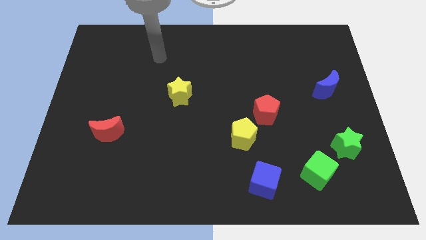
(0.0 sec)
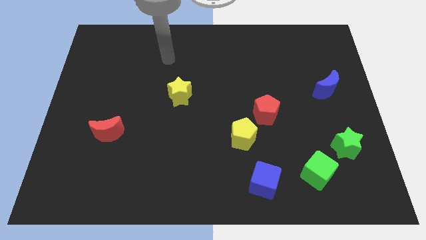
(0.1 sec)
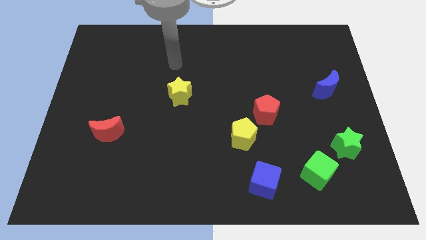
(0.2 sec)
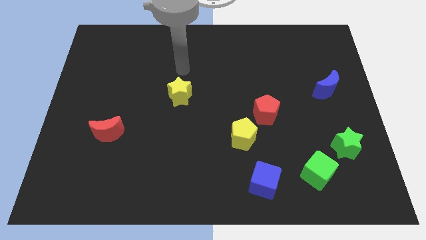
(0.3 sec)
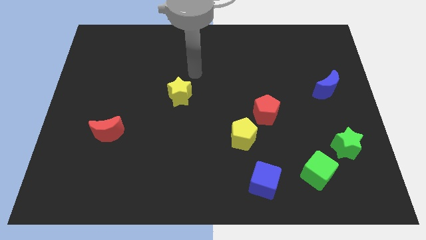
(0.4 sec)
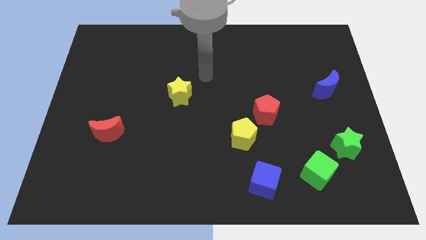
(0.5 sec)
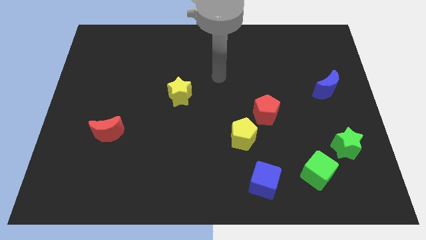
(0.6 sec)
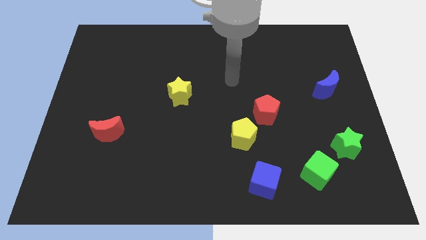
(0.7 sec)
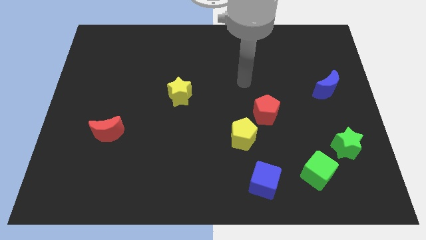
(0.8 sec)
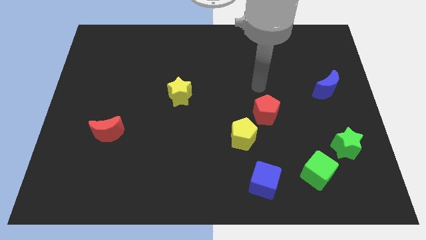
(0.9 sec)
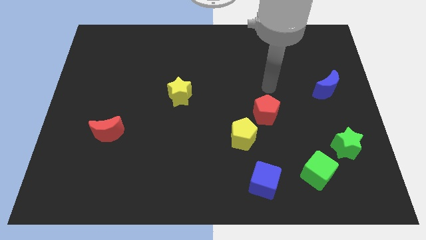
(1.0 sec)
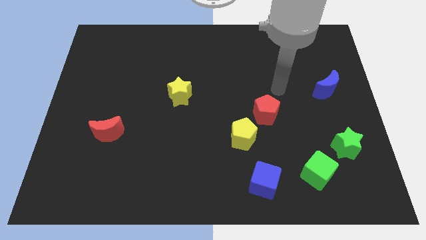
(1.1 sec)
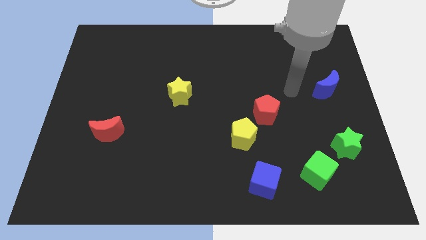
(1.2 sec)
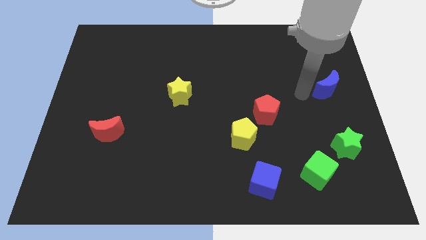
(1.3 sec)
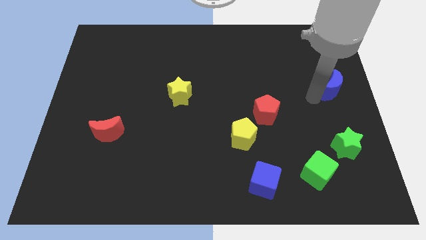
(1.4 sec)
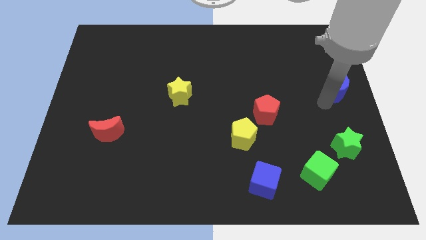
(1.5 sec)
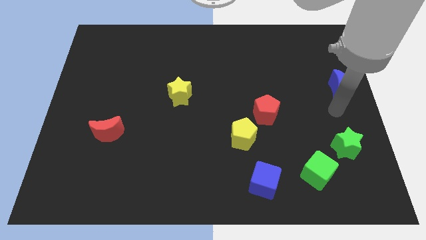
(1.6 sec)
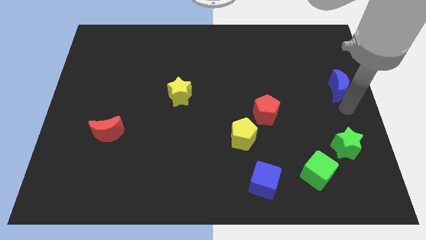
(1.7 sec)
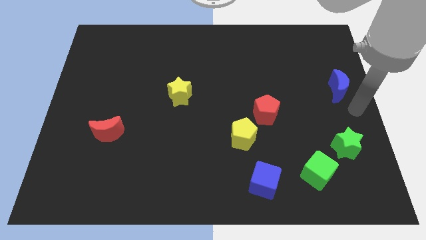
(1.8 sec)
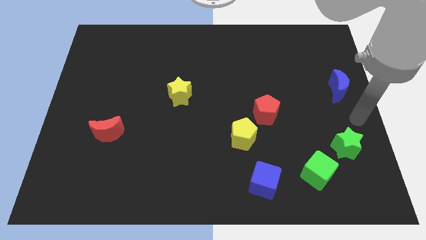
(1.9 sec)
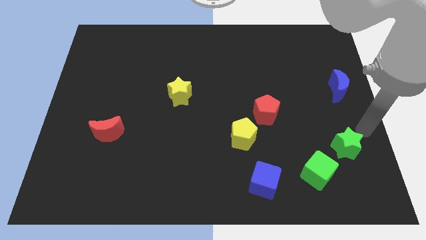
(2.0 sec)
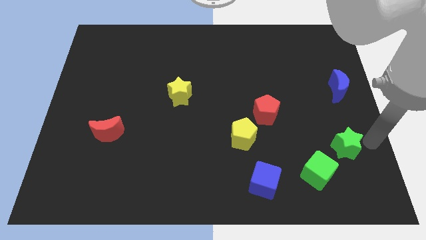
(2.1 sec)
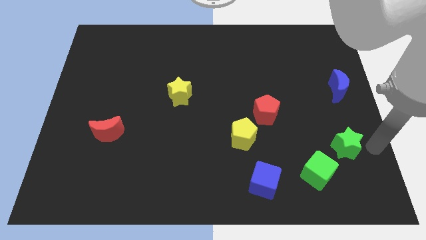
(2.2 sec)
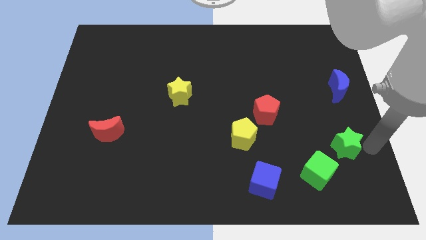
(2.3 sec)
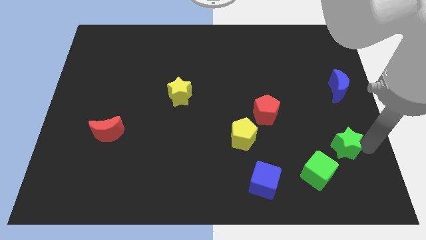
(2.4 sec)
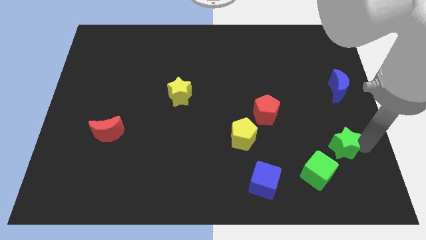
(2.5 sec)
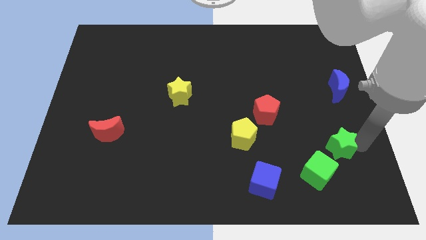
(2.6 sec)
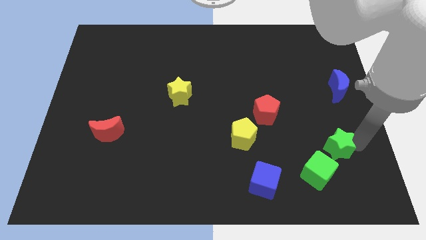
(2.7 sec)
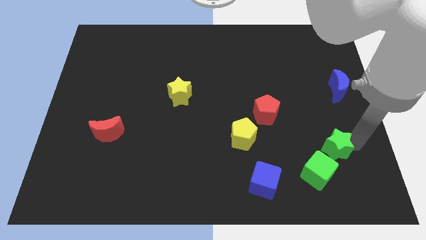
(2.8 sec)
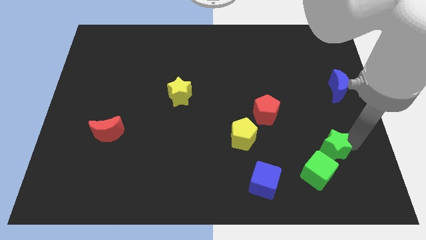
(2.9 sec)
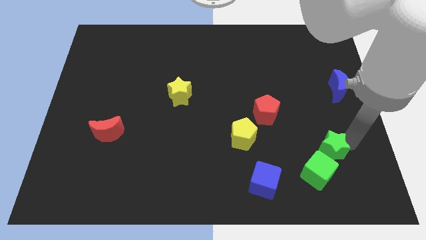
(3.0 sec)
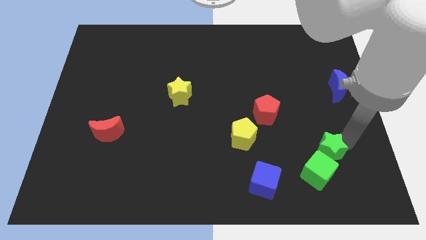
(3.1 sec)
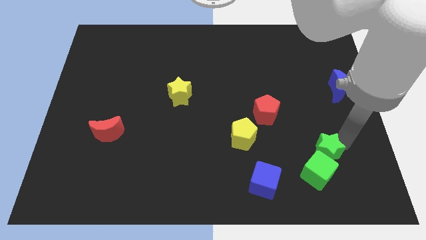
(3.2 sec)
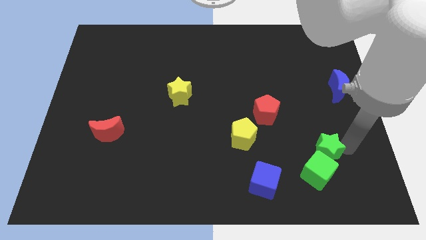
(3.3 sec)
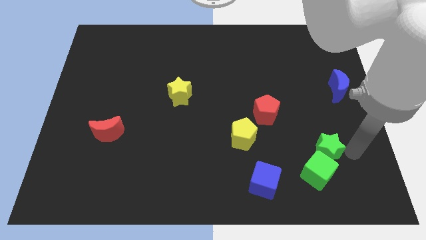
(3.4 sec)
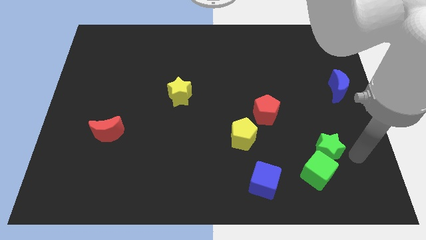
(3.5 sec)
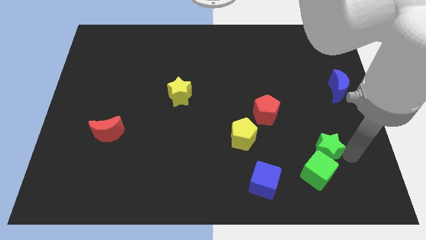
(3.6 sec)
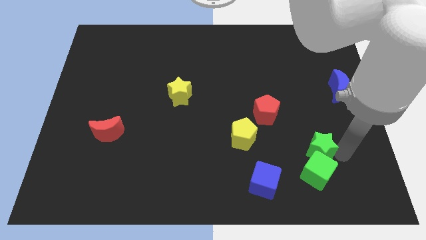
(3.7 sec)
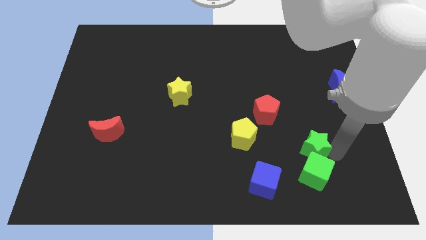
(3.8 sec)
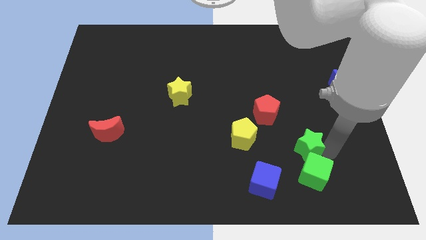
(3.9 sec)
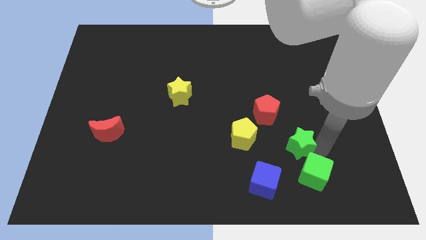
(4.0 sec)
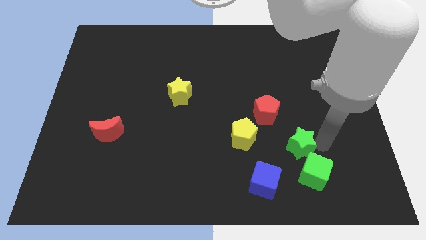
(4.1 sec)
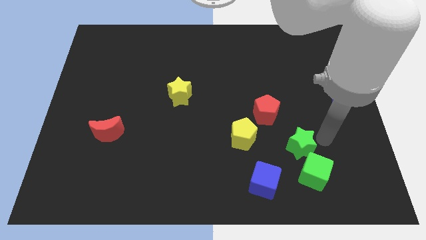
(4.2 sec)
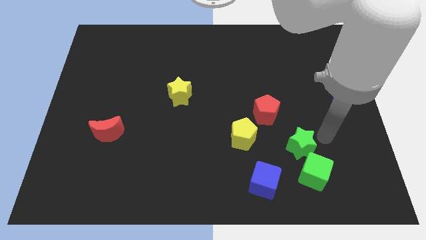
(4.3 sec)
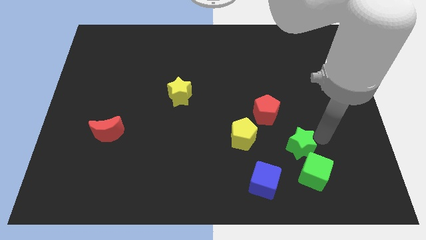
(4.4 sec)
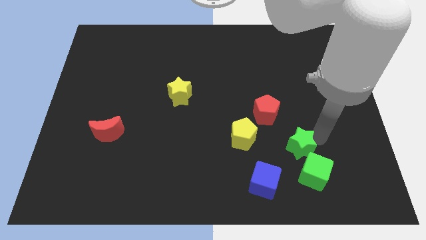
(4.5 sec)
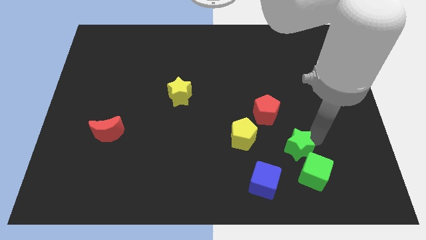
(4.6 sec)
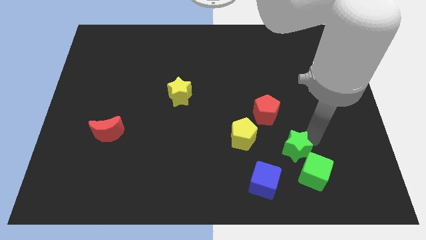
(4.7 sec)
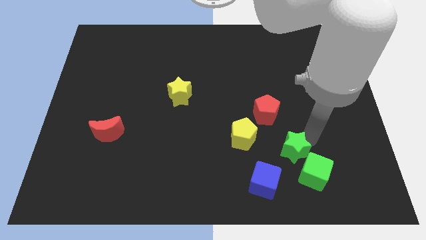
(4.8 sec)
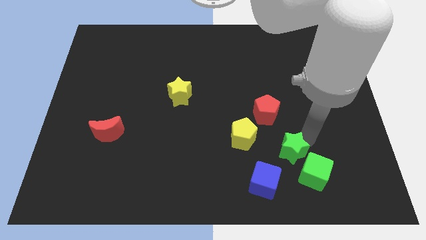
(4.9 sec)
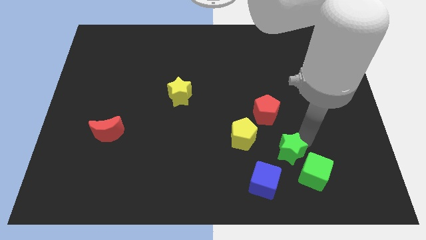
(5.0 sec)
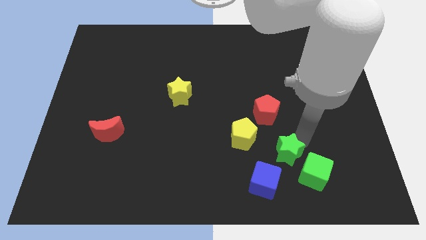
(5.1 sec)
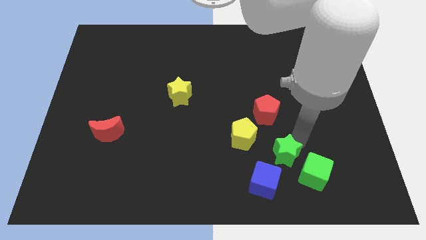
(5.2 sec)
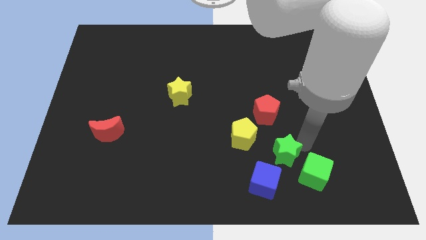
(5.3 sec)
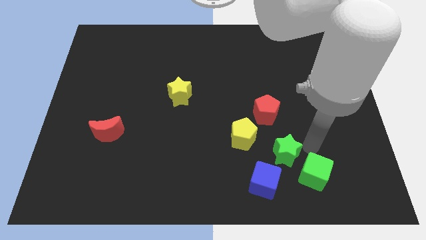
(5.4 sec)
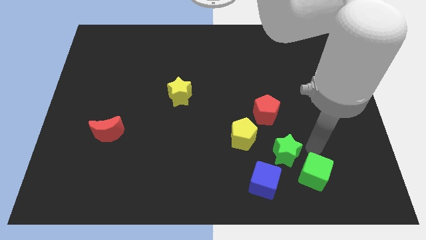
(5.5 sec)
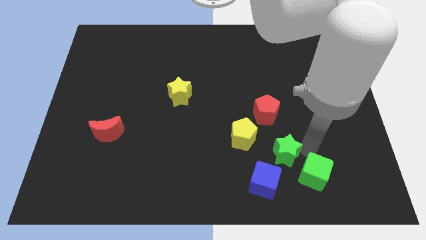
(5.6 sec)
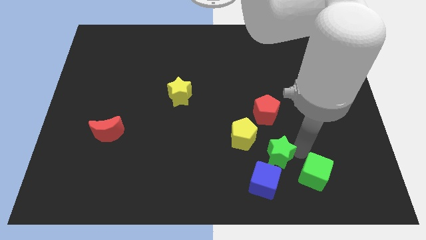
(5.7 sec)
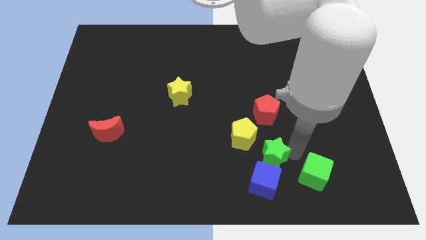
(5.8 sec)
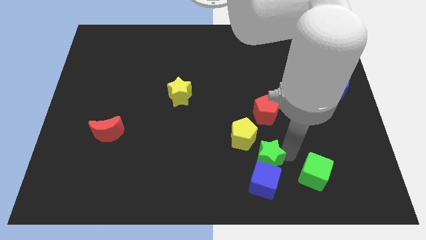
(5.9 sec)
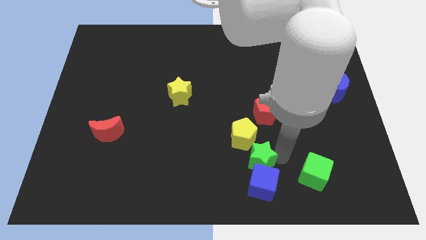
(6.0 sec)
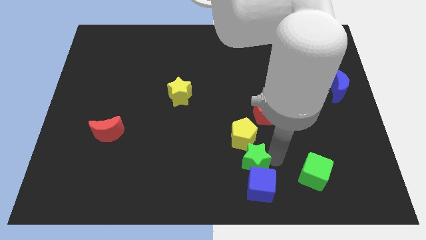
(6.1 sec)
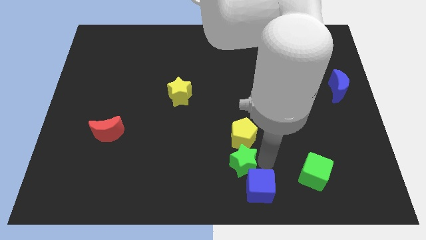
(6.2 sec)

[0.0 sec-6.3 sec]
slide the green star left

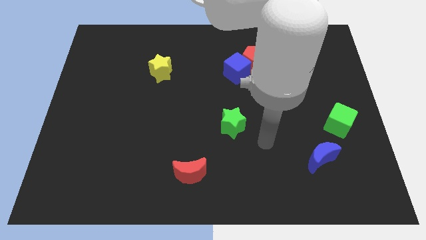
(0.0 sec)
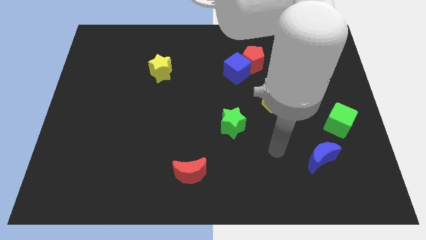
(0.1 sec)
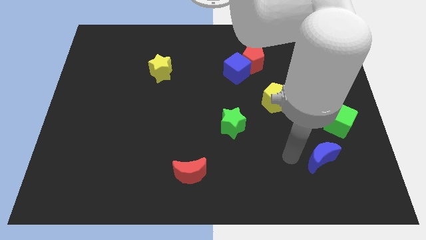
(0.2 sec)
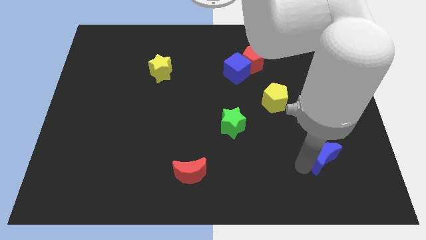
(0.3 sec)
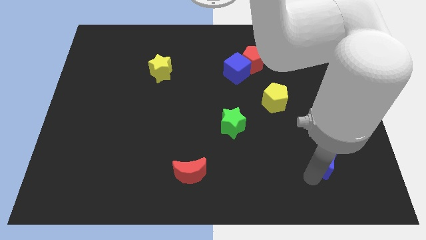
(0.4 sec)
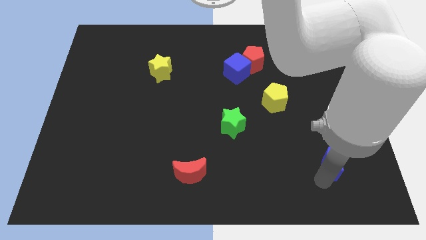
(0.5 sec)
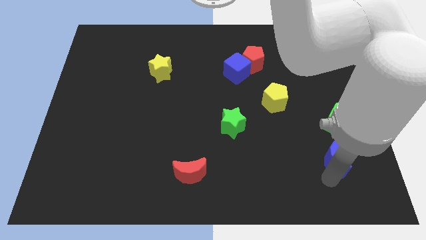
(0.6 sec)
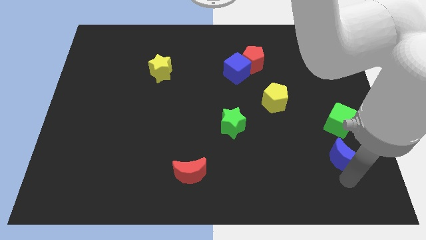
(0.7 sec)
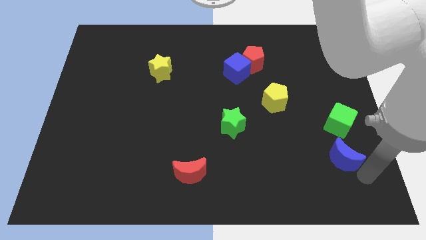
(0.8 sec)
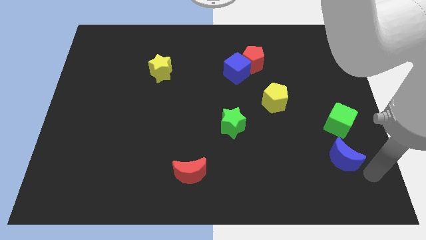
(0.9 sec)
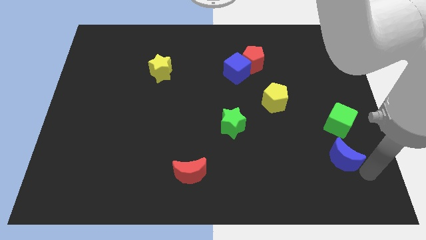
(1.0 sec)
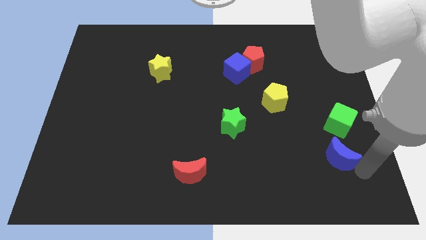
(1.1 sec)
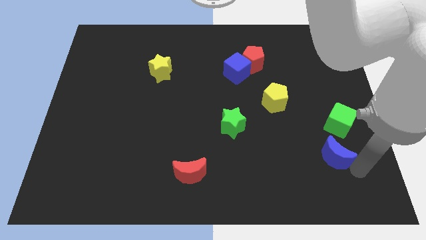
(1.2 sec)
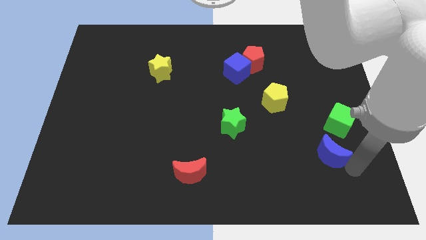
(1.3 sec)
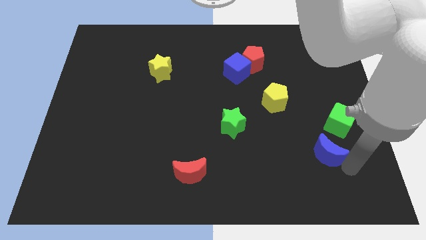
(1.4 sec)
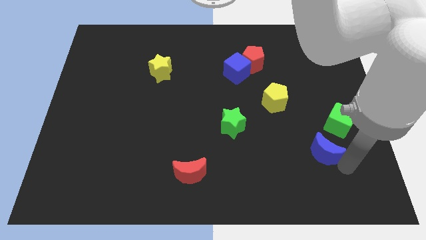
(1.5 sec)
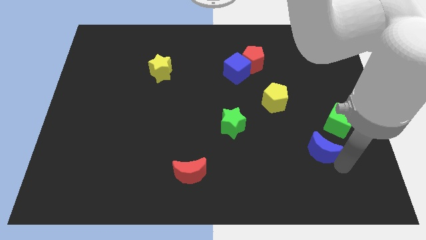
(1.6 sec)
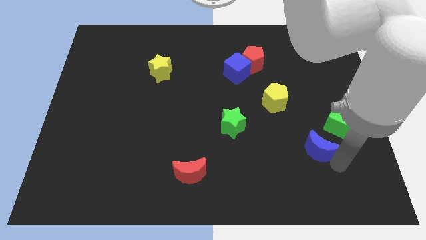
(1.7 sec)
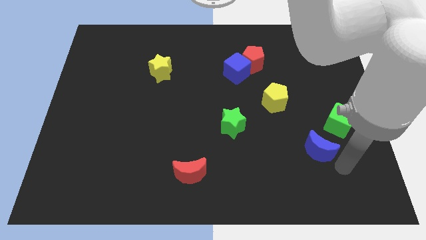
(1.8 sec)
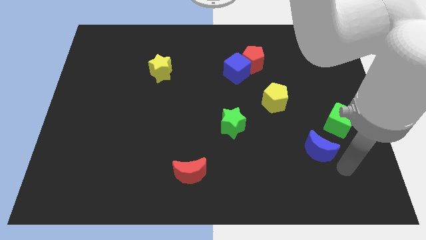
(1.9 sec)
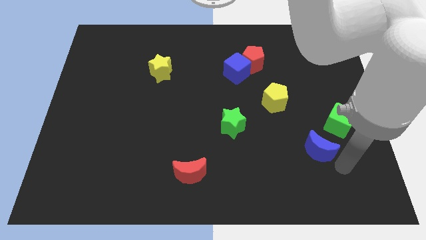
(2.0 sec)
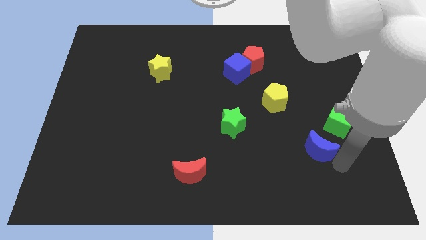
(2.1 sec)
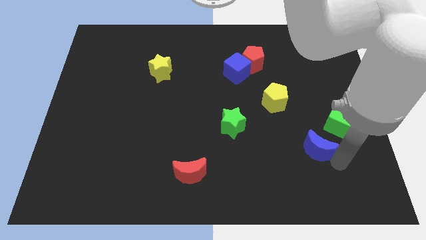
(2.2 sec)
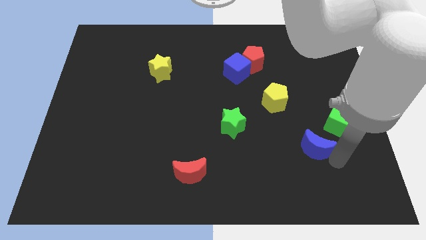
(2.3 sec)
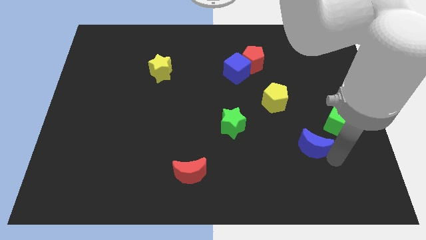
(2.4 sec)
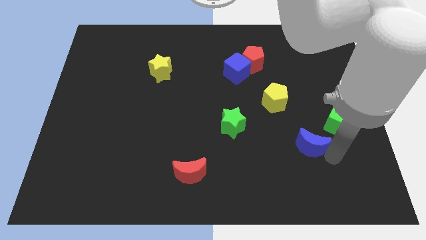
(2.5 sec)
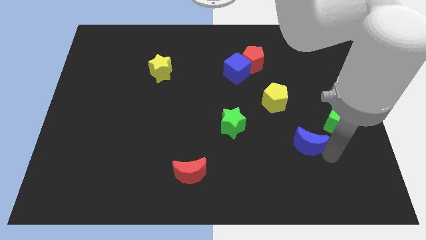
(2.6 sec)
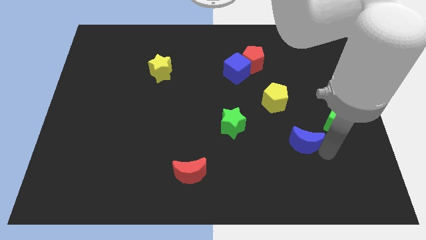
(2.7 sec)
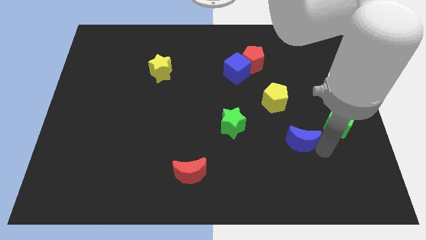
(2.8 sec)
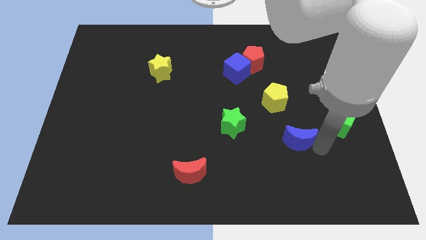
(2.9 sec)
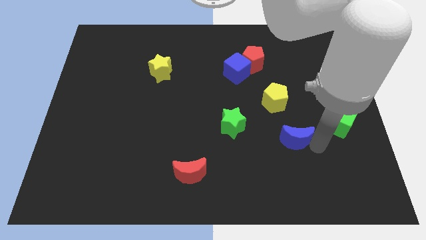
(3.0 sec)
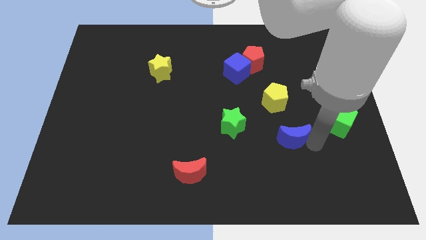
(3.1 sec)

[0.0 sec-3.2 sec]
move the blue moon upwards and left somewhat
